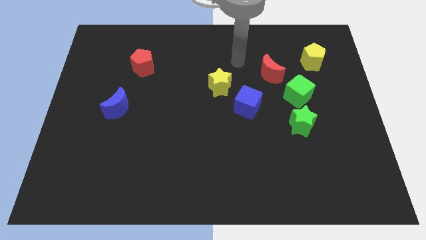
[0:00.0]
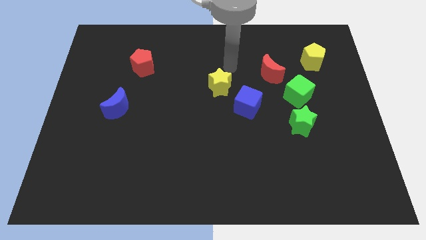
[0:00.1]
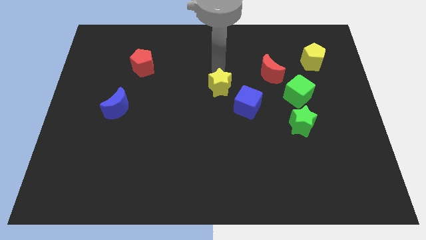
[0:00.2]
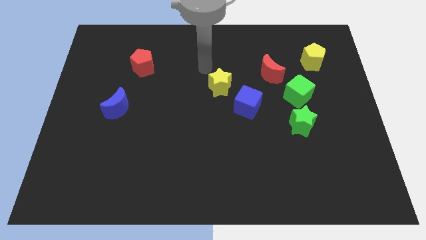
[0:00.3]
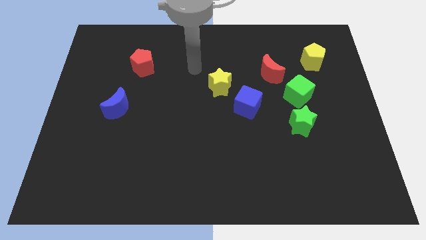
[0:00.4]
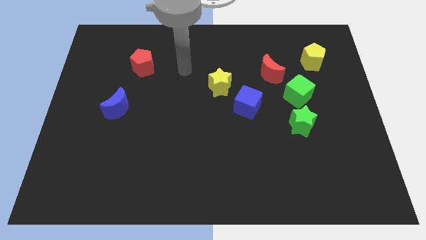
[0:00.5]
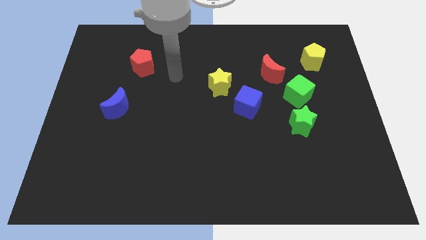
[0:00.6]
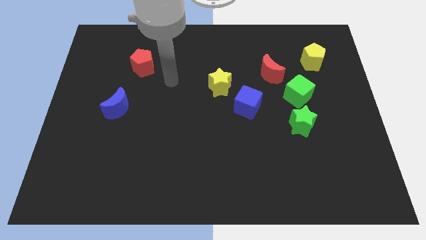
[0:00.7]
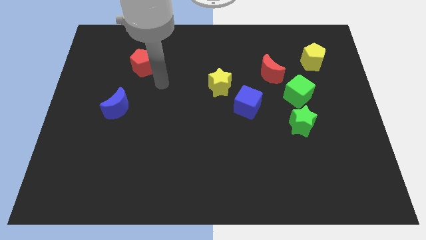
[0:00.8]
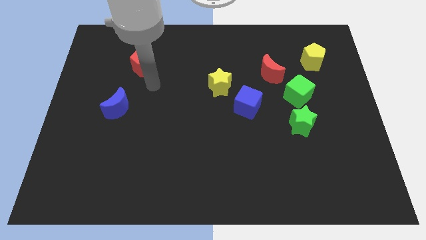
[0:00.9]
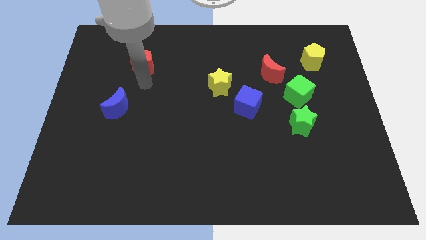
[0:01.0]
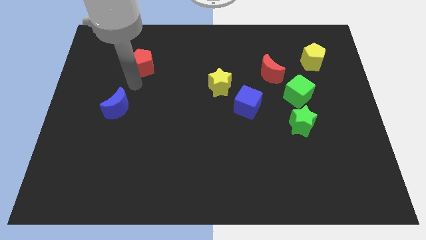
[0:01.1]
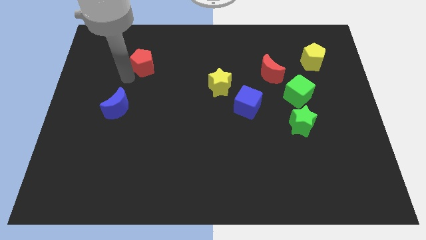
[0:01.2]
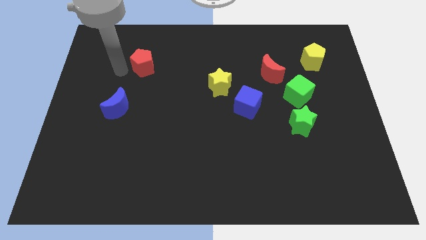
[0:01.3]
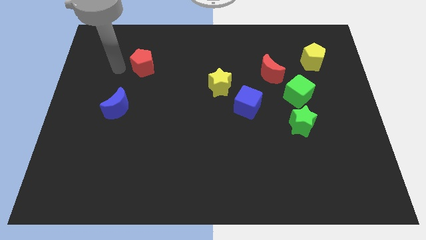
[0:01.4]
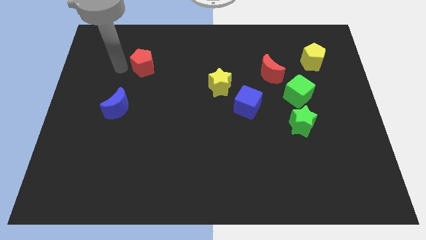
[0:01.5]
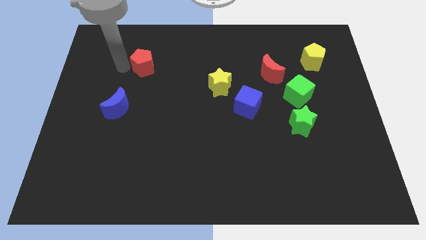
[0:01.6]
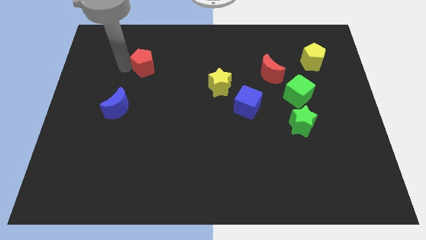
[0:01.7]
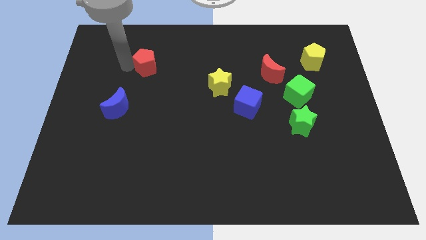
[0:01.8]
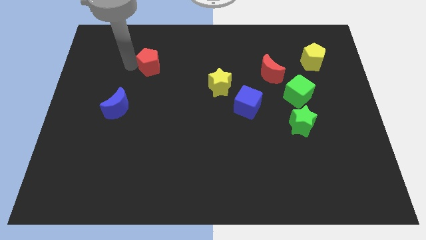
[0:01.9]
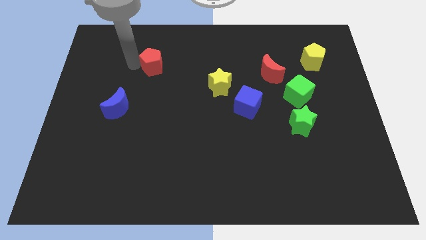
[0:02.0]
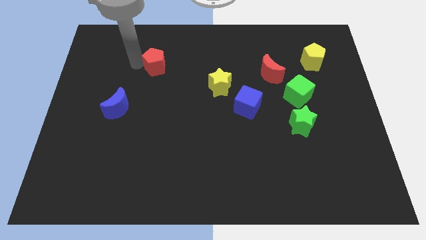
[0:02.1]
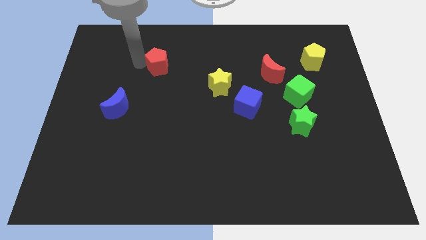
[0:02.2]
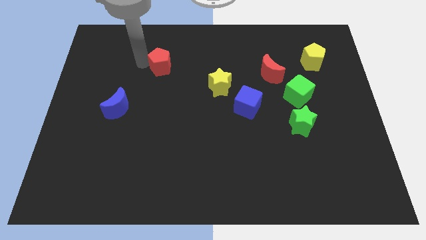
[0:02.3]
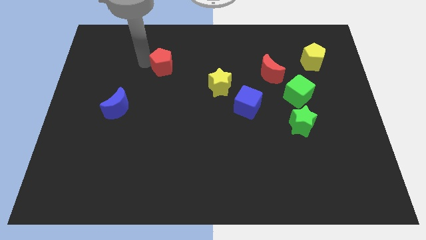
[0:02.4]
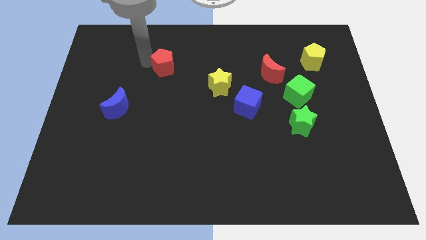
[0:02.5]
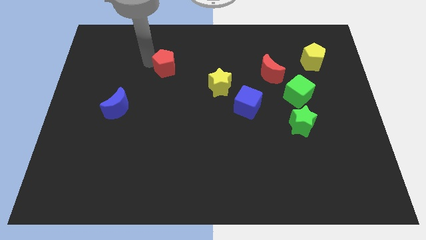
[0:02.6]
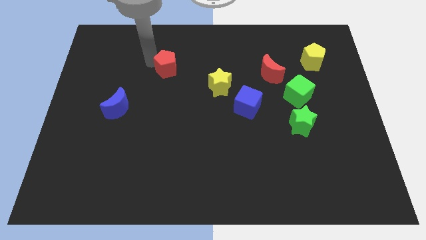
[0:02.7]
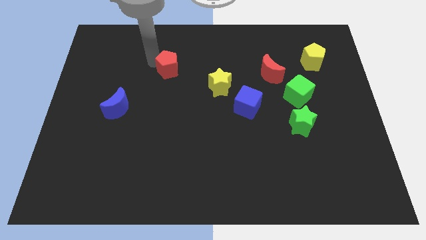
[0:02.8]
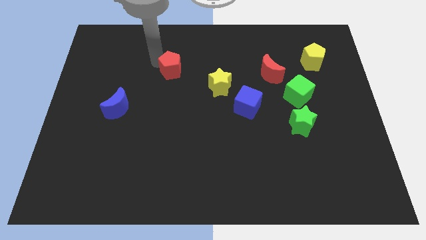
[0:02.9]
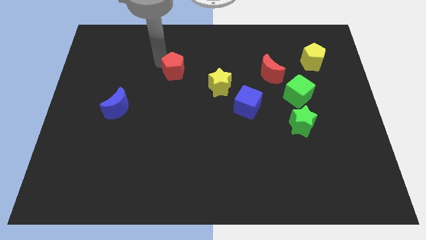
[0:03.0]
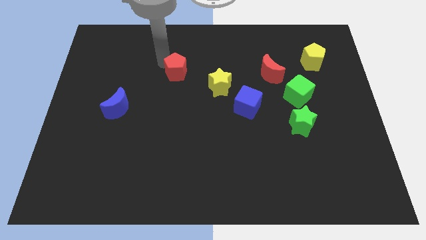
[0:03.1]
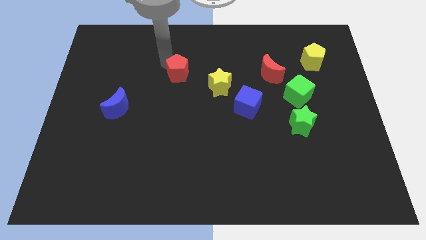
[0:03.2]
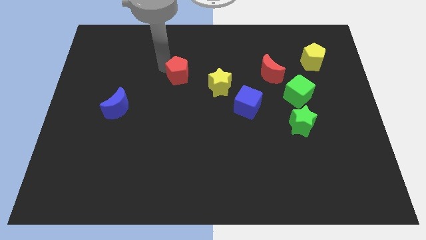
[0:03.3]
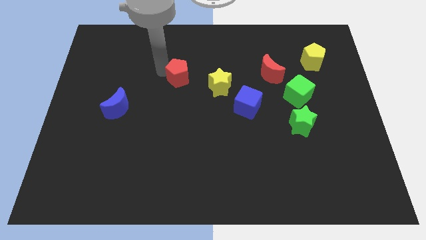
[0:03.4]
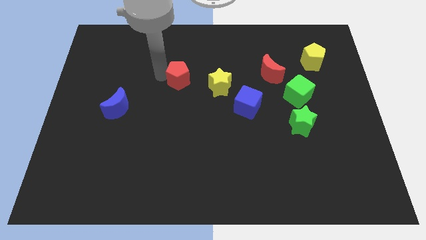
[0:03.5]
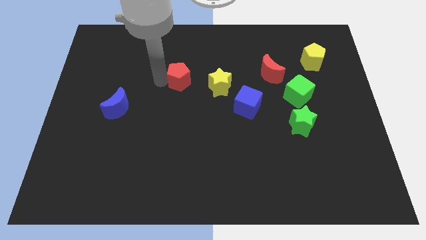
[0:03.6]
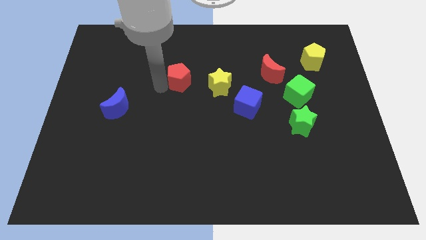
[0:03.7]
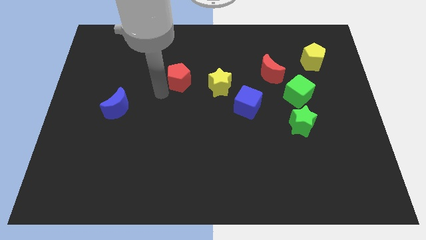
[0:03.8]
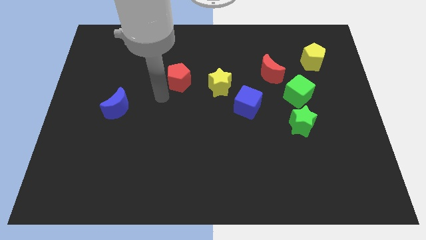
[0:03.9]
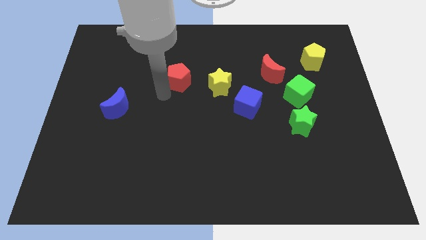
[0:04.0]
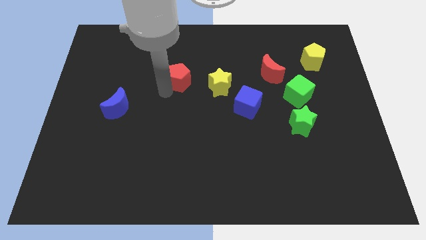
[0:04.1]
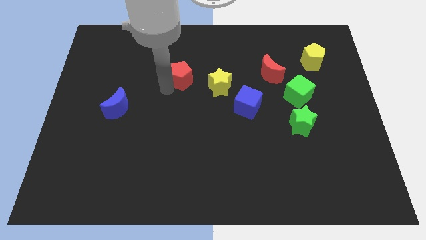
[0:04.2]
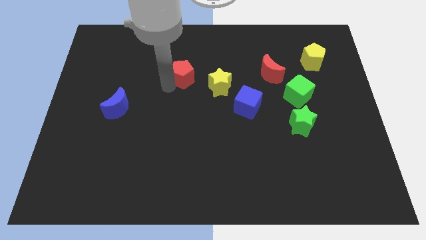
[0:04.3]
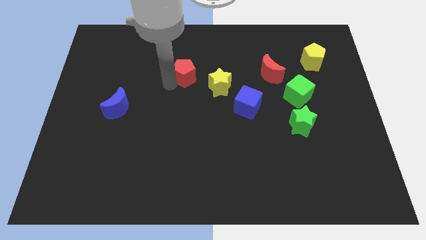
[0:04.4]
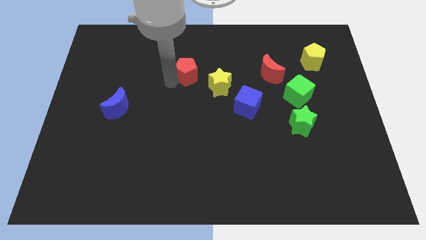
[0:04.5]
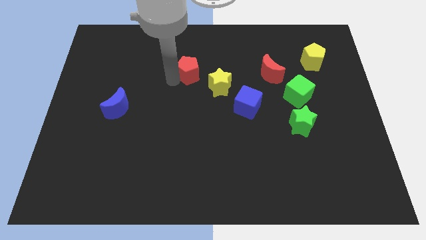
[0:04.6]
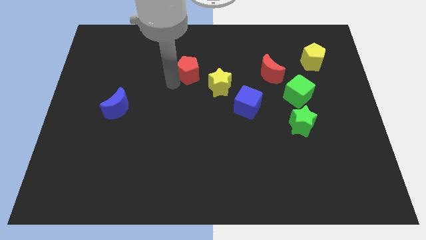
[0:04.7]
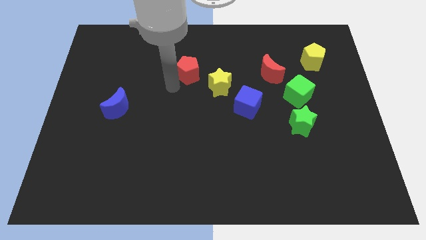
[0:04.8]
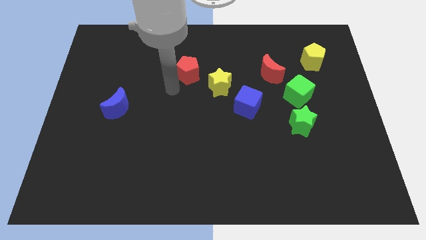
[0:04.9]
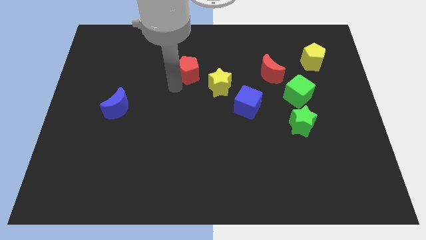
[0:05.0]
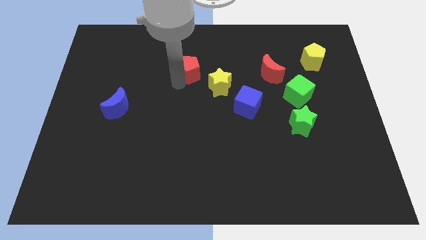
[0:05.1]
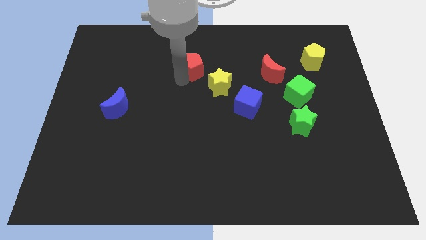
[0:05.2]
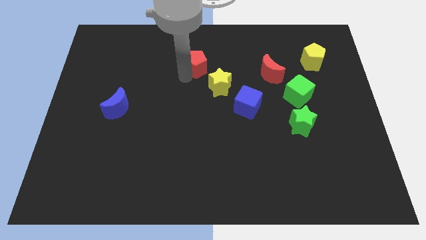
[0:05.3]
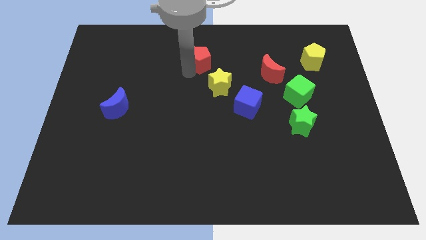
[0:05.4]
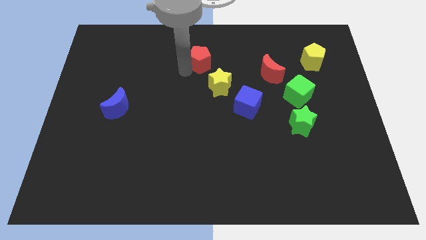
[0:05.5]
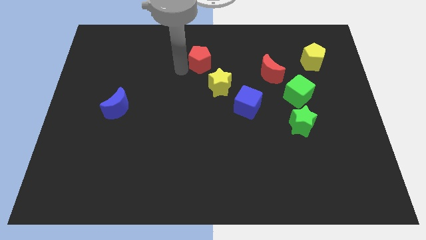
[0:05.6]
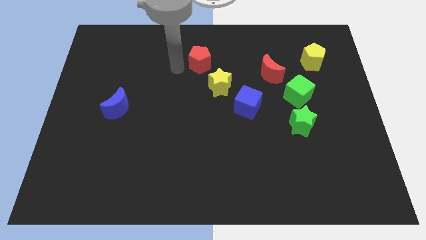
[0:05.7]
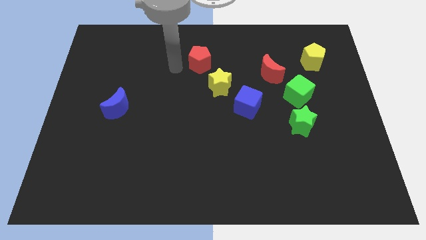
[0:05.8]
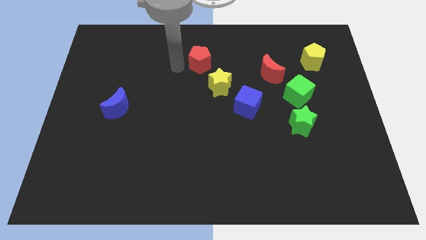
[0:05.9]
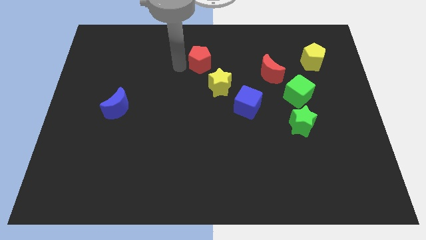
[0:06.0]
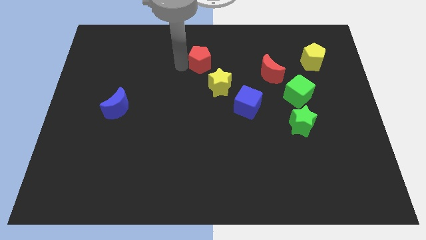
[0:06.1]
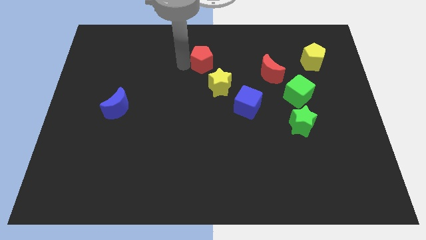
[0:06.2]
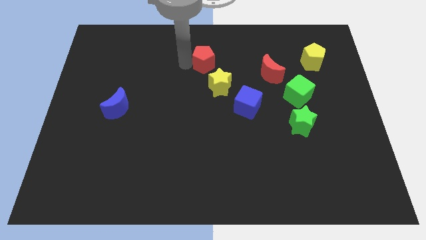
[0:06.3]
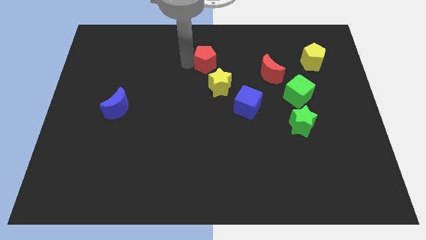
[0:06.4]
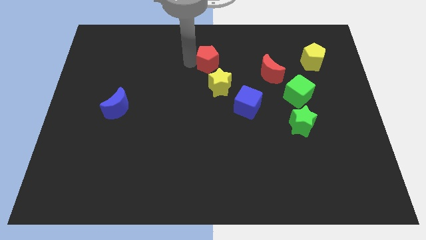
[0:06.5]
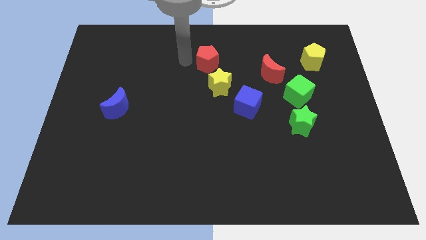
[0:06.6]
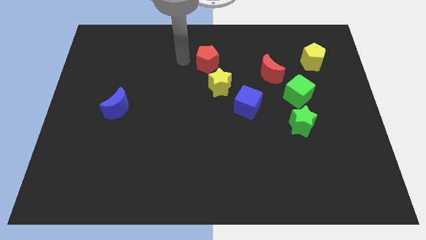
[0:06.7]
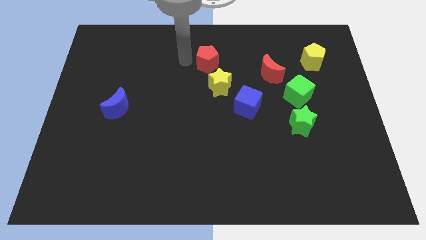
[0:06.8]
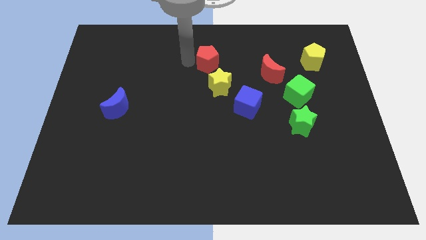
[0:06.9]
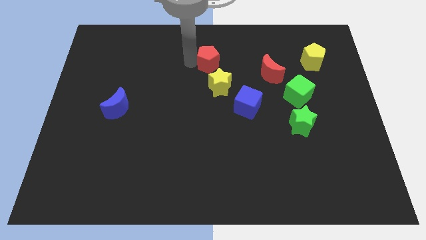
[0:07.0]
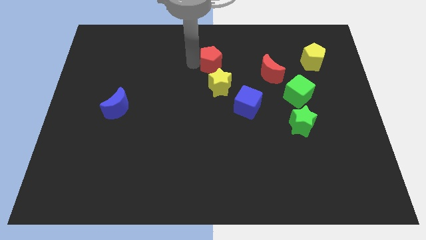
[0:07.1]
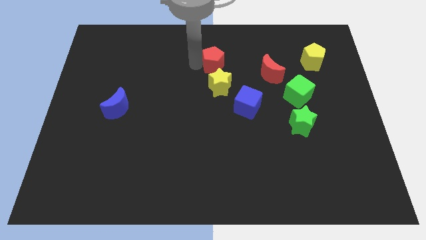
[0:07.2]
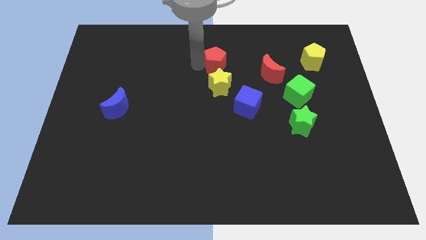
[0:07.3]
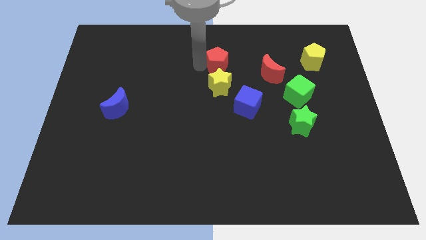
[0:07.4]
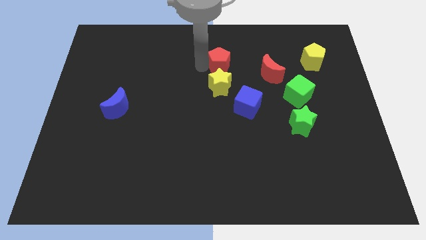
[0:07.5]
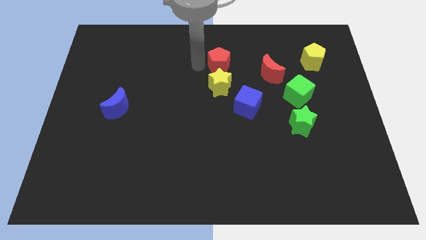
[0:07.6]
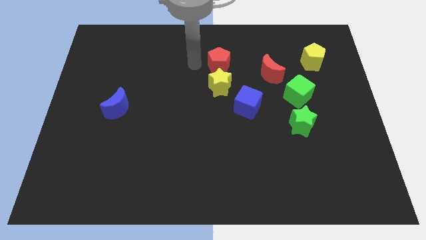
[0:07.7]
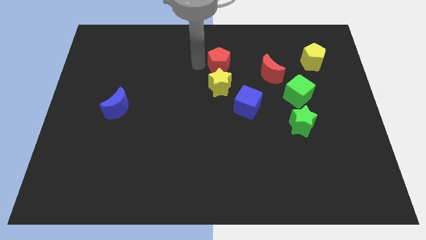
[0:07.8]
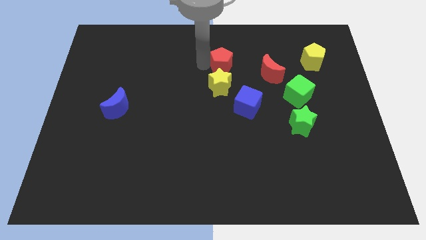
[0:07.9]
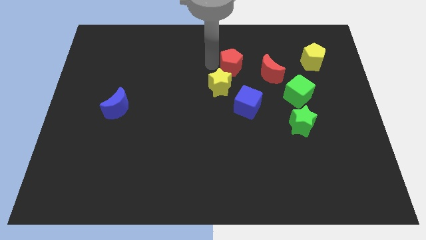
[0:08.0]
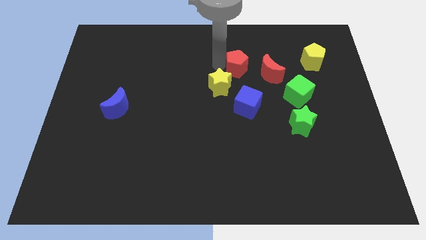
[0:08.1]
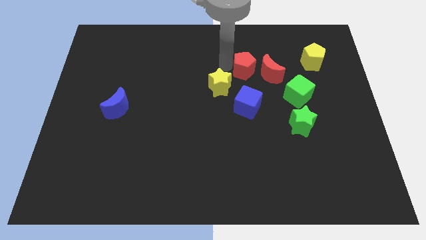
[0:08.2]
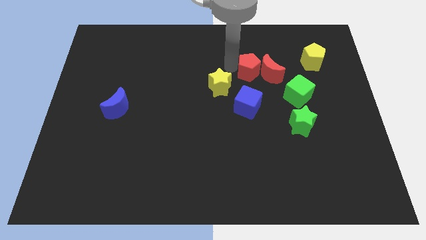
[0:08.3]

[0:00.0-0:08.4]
put the red pentagon towards the red moon
